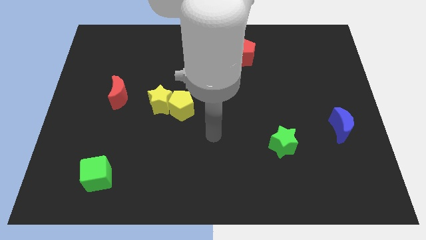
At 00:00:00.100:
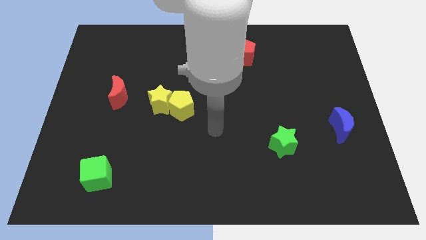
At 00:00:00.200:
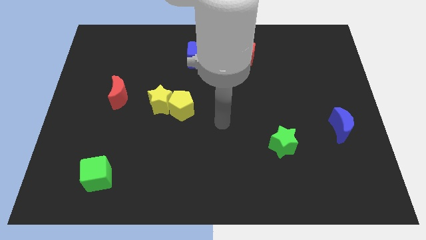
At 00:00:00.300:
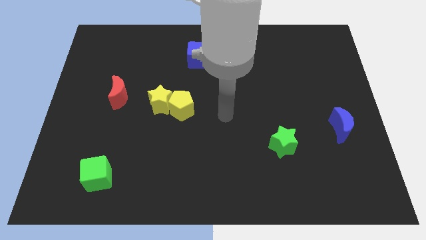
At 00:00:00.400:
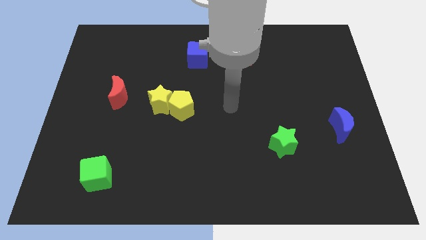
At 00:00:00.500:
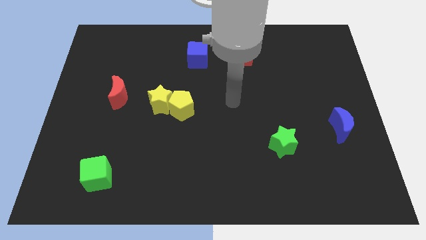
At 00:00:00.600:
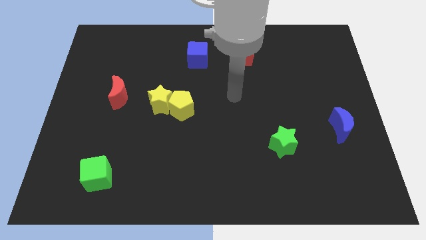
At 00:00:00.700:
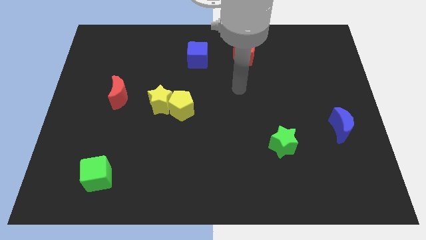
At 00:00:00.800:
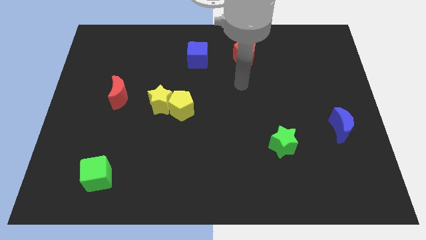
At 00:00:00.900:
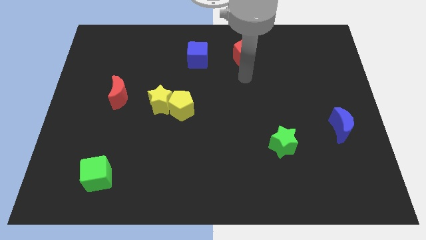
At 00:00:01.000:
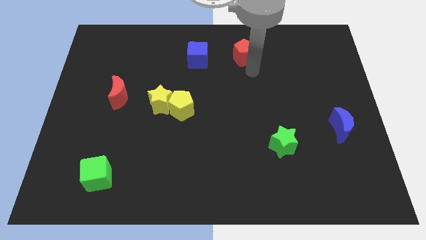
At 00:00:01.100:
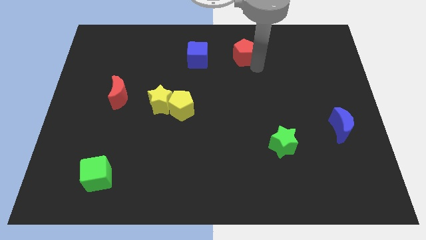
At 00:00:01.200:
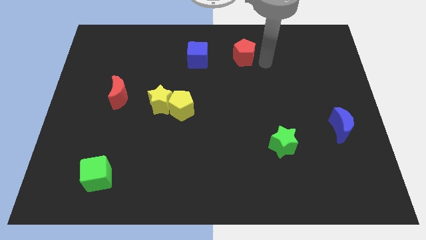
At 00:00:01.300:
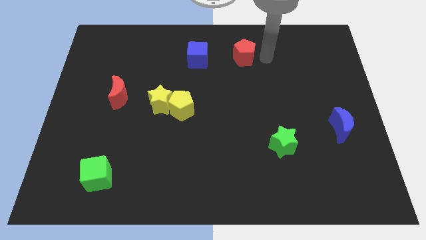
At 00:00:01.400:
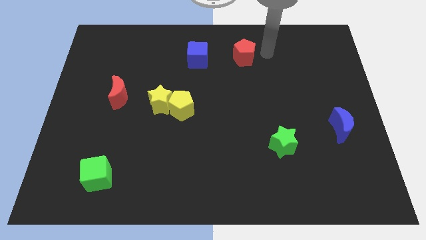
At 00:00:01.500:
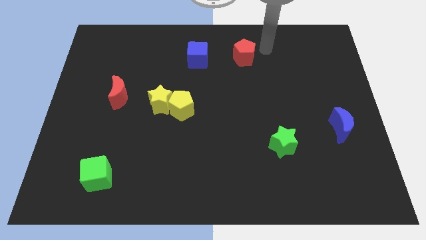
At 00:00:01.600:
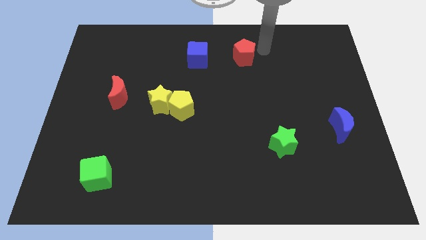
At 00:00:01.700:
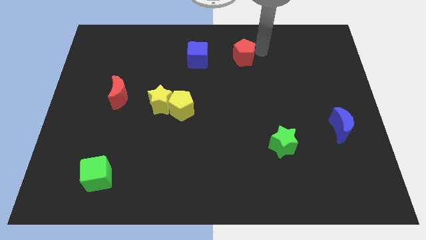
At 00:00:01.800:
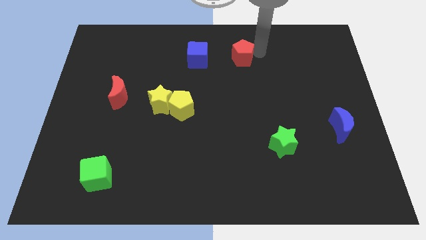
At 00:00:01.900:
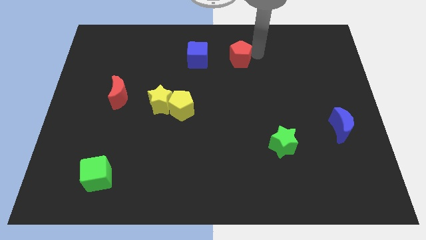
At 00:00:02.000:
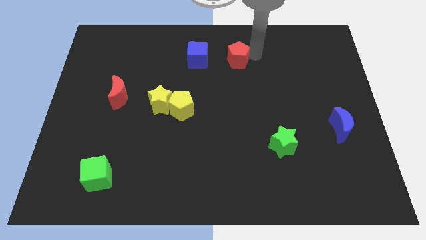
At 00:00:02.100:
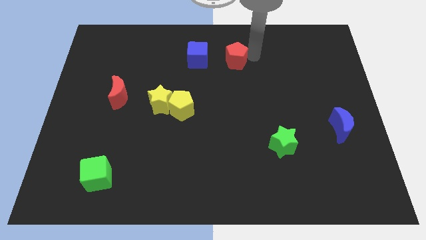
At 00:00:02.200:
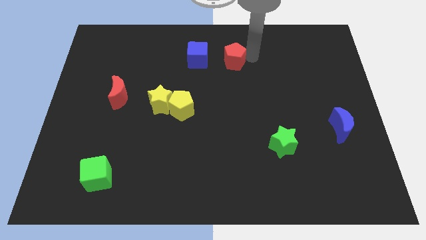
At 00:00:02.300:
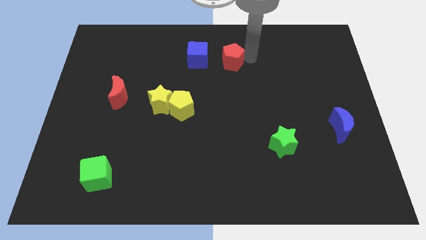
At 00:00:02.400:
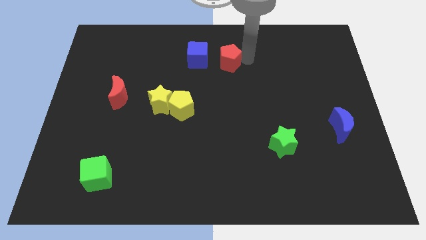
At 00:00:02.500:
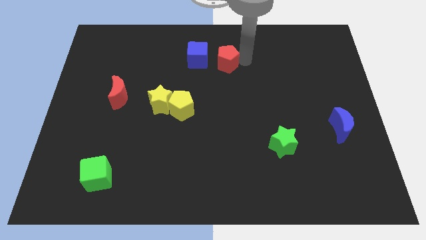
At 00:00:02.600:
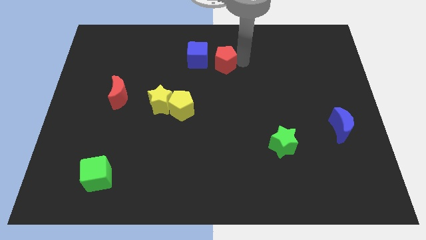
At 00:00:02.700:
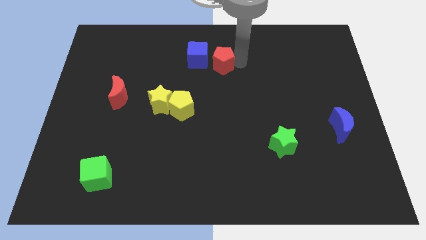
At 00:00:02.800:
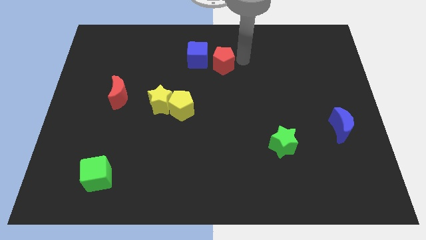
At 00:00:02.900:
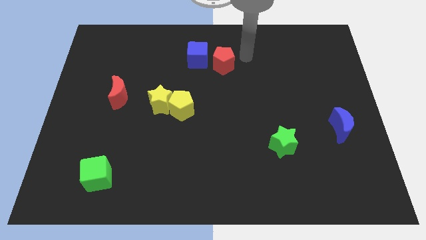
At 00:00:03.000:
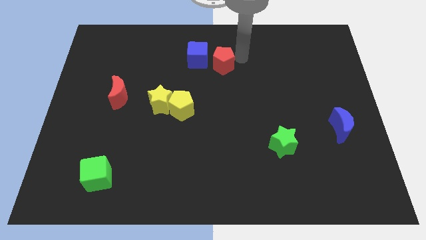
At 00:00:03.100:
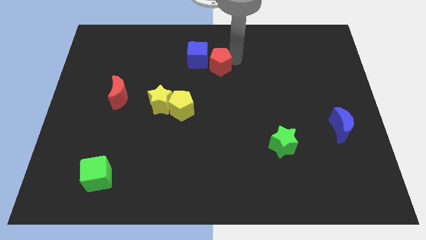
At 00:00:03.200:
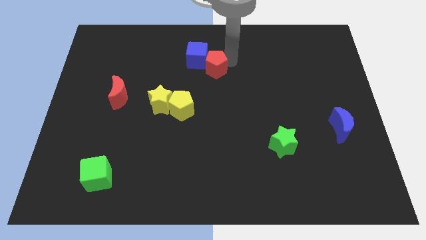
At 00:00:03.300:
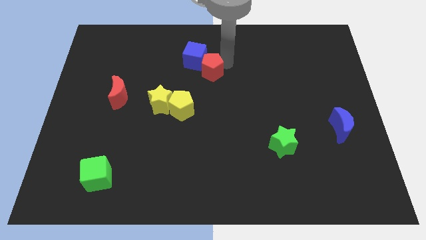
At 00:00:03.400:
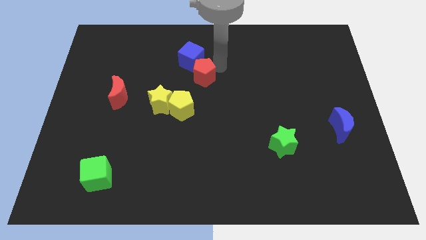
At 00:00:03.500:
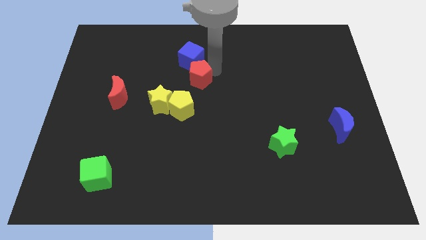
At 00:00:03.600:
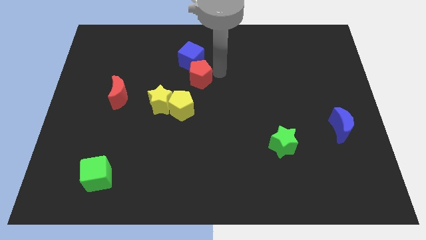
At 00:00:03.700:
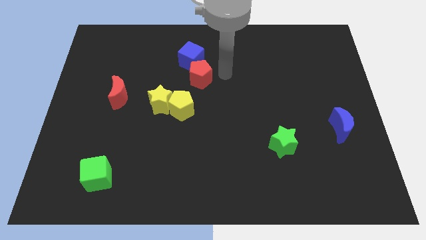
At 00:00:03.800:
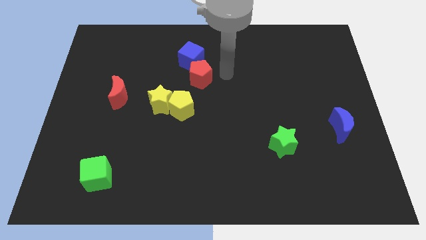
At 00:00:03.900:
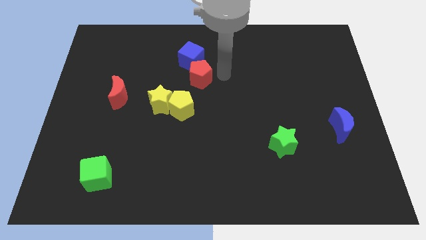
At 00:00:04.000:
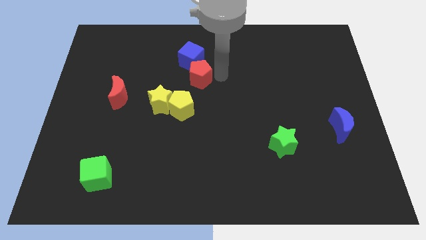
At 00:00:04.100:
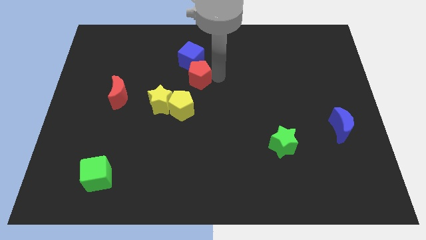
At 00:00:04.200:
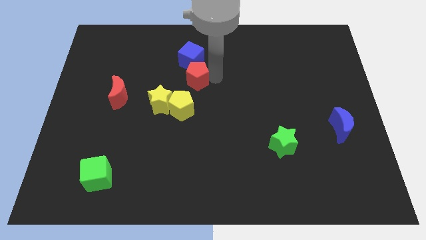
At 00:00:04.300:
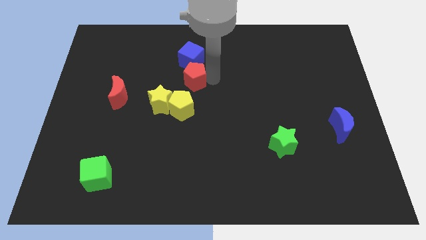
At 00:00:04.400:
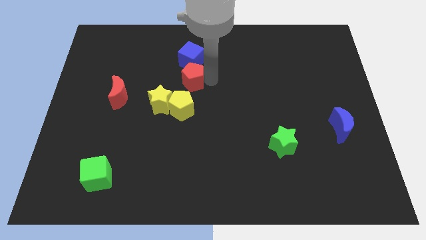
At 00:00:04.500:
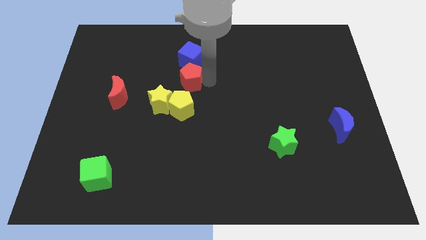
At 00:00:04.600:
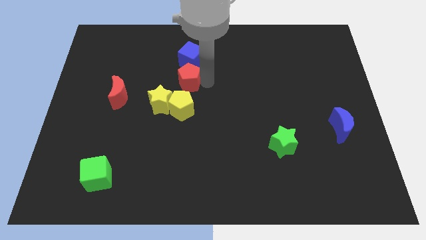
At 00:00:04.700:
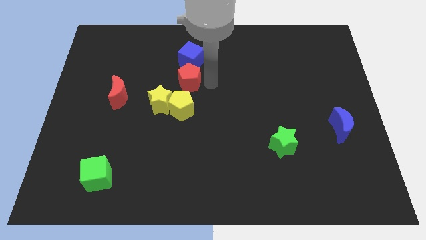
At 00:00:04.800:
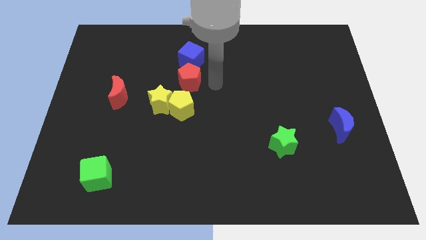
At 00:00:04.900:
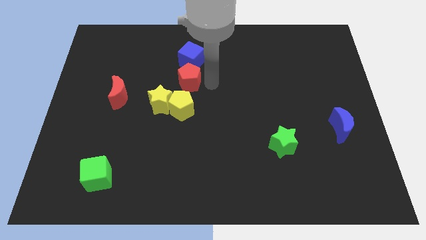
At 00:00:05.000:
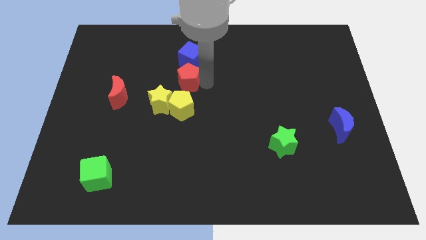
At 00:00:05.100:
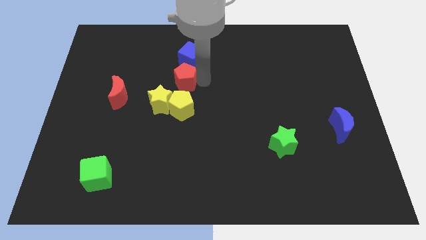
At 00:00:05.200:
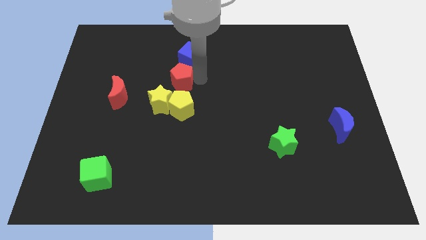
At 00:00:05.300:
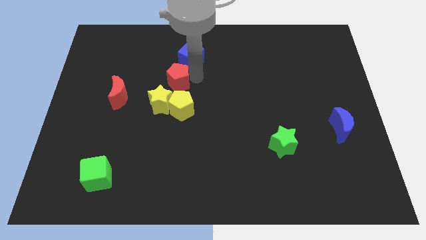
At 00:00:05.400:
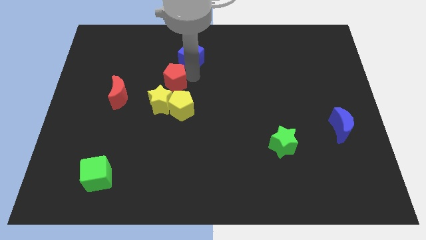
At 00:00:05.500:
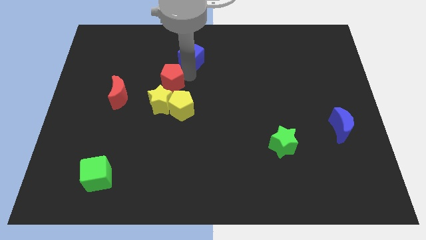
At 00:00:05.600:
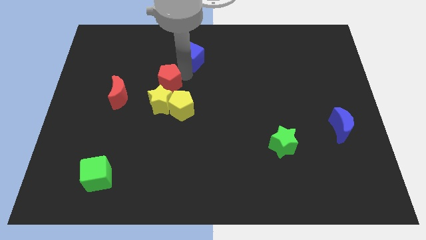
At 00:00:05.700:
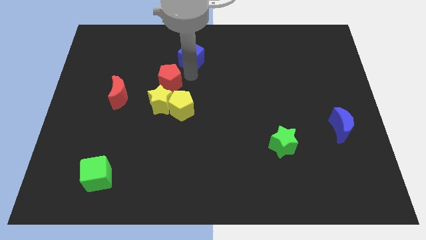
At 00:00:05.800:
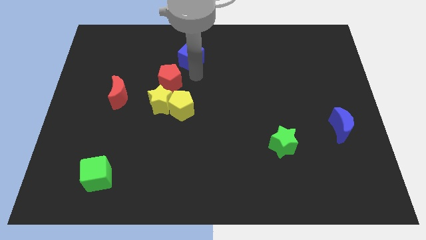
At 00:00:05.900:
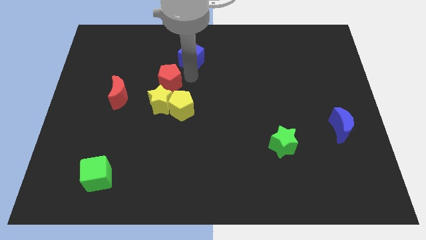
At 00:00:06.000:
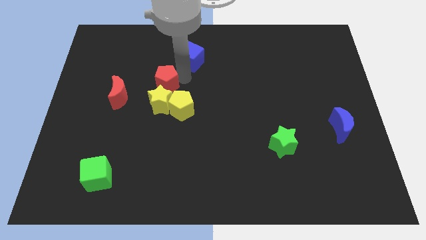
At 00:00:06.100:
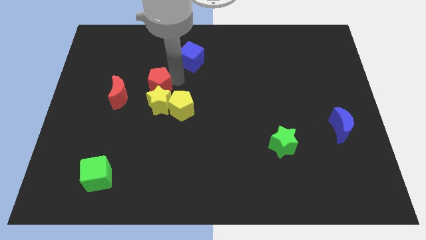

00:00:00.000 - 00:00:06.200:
slide the red pentagon to the top left of the yellow star
